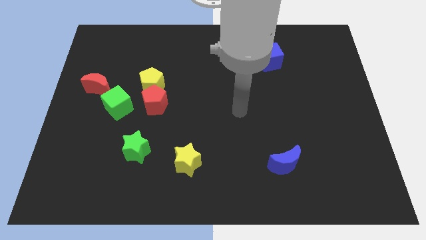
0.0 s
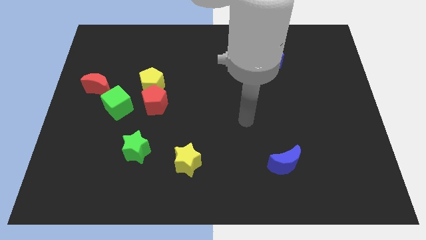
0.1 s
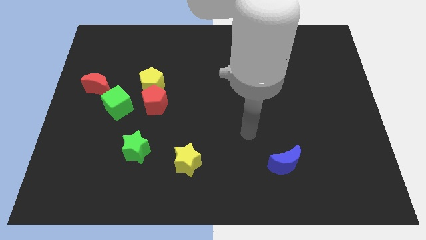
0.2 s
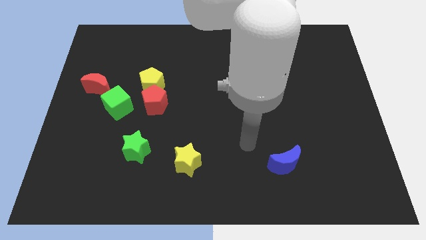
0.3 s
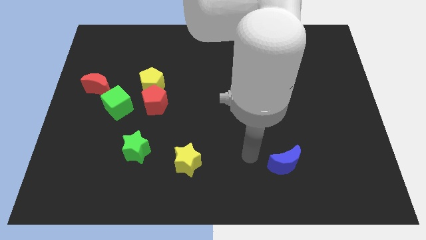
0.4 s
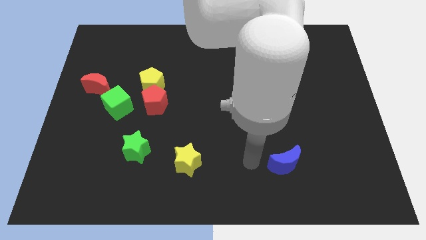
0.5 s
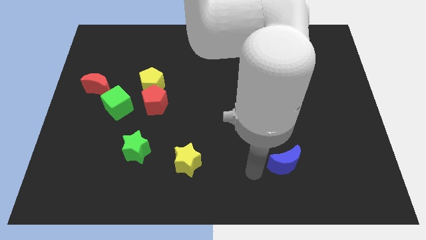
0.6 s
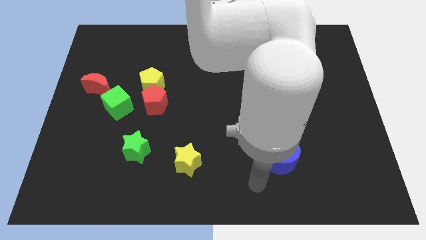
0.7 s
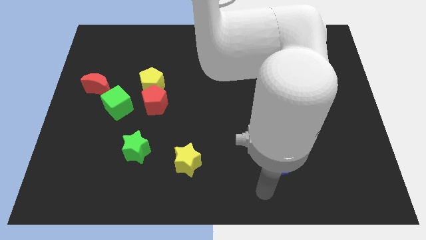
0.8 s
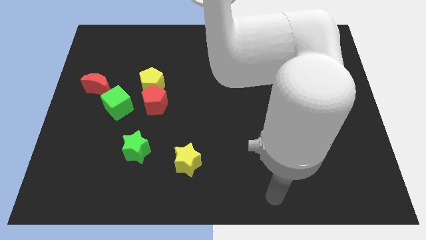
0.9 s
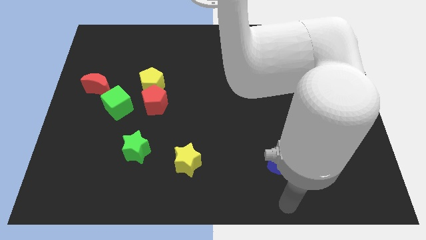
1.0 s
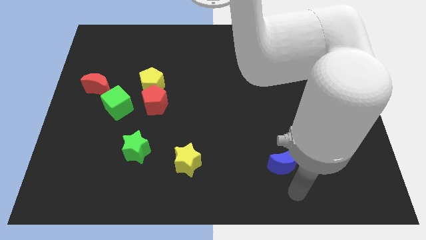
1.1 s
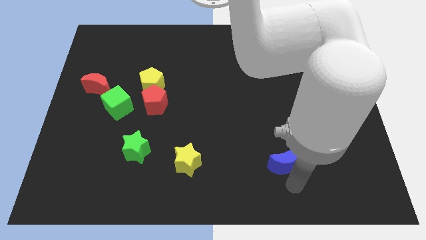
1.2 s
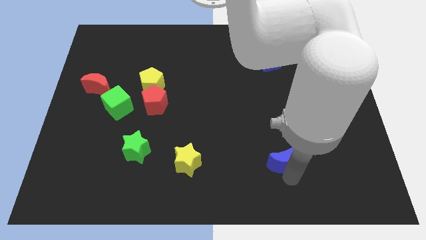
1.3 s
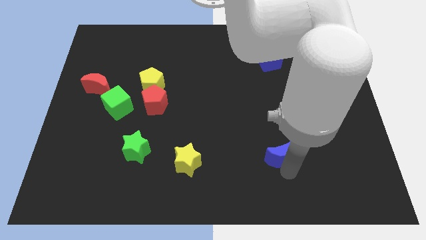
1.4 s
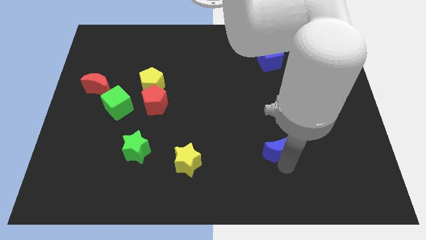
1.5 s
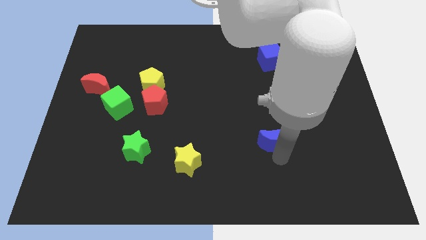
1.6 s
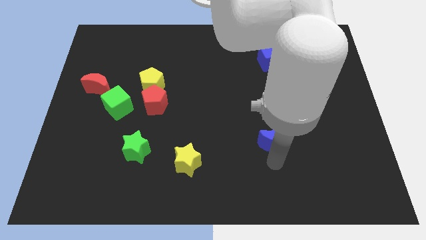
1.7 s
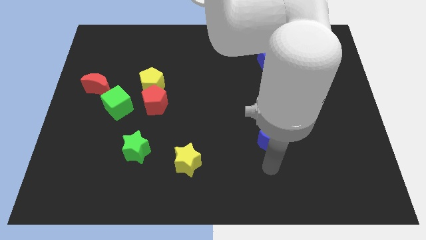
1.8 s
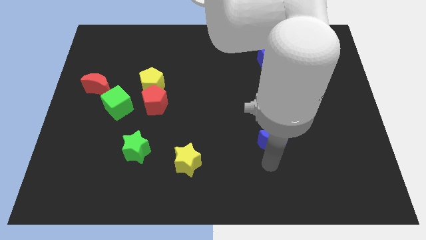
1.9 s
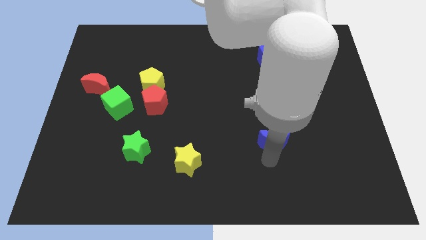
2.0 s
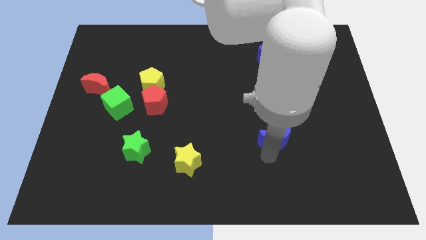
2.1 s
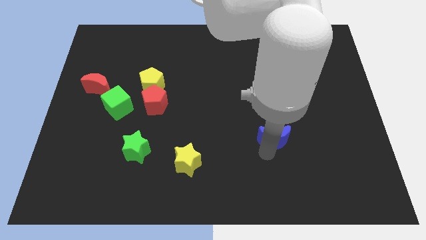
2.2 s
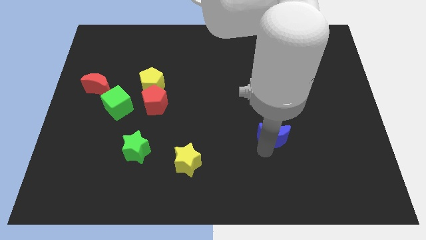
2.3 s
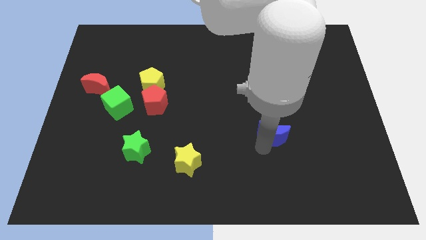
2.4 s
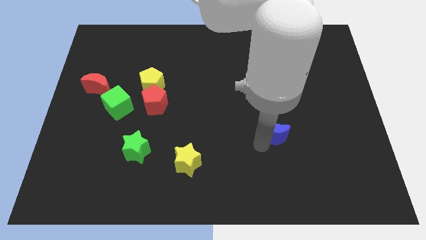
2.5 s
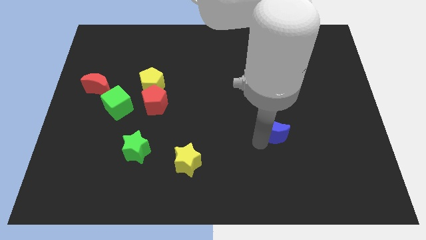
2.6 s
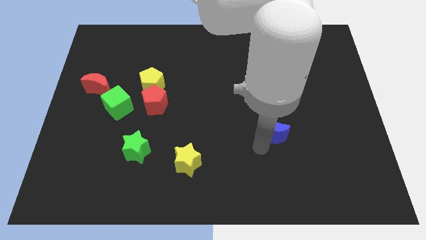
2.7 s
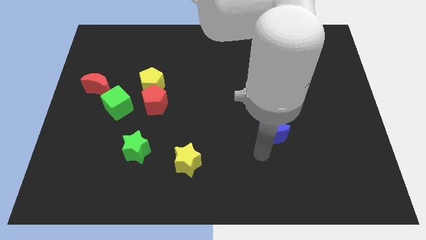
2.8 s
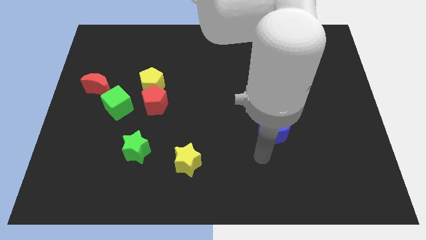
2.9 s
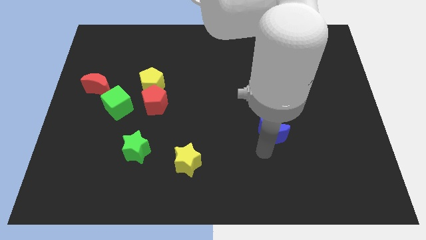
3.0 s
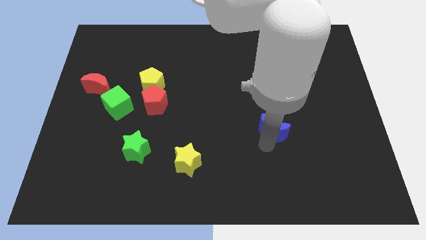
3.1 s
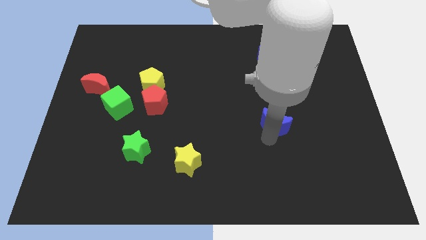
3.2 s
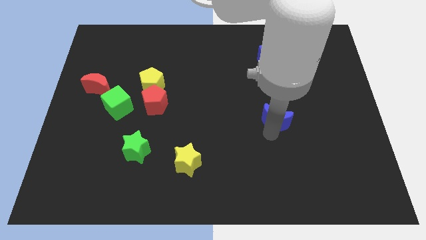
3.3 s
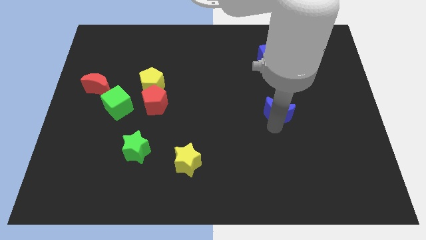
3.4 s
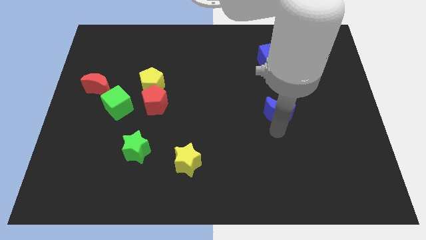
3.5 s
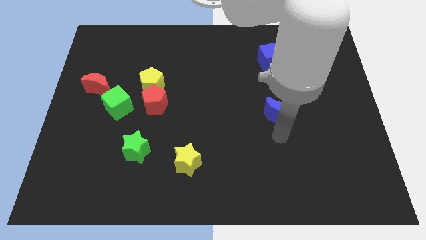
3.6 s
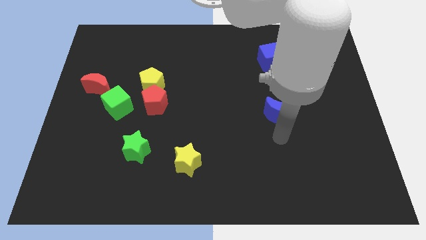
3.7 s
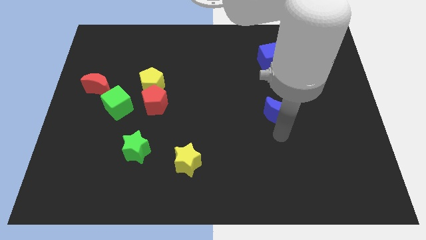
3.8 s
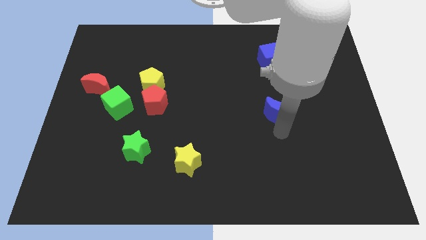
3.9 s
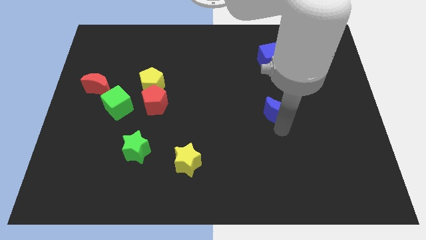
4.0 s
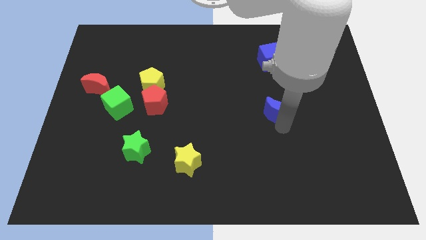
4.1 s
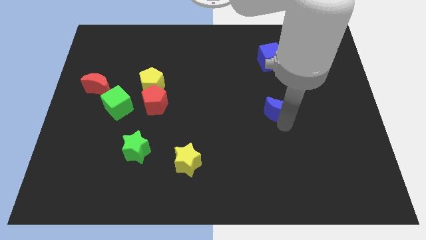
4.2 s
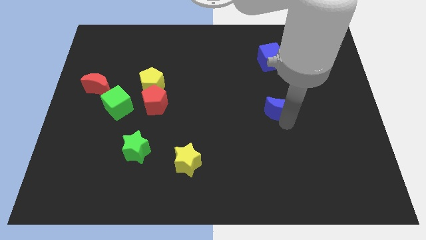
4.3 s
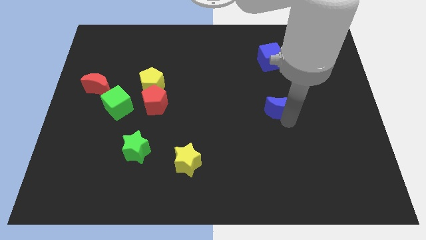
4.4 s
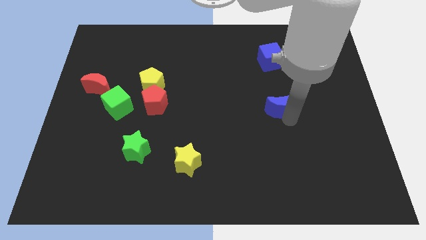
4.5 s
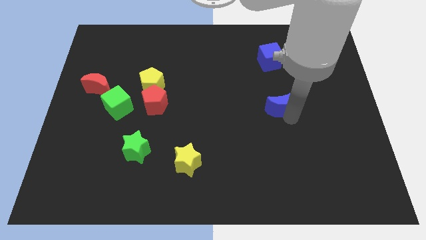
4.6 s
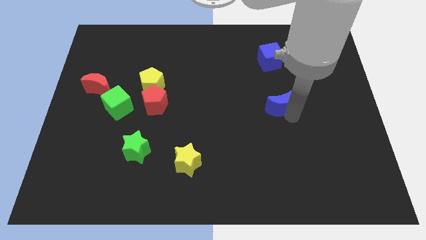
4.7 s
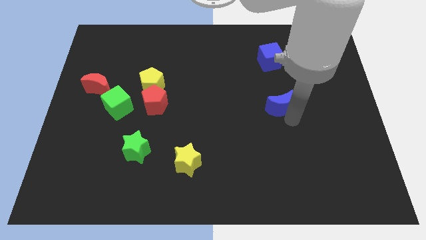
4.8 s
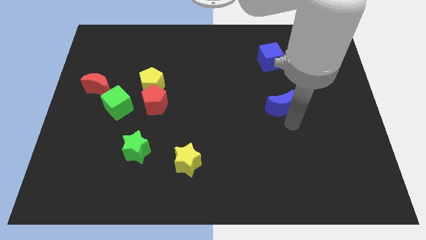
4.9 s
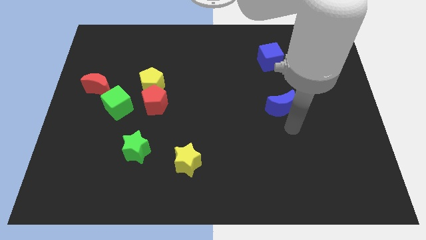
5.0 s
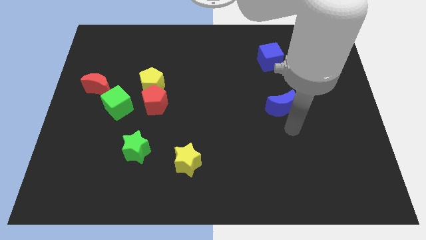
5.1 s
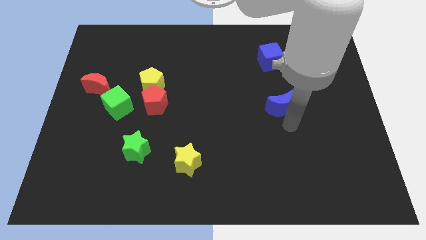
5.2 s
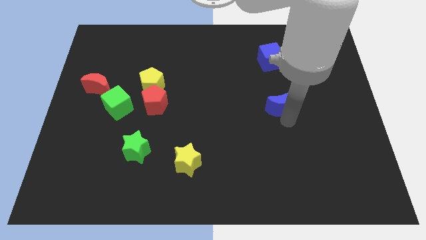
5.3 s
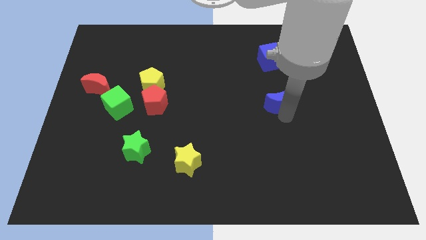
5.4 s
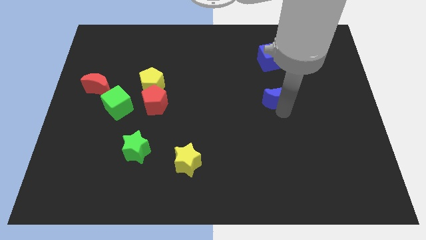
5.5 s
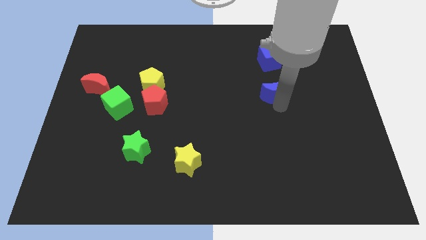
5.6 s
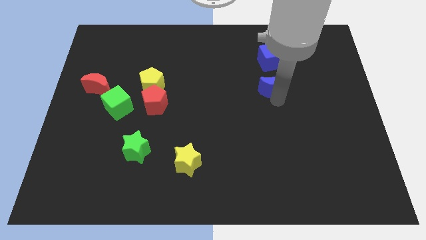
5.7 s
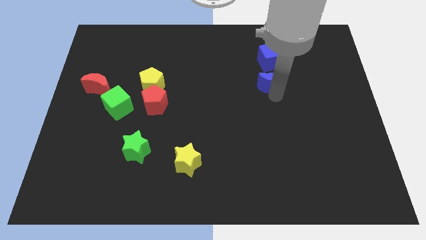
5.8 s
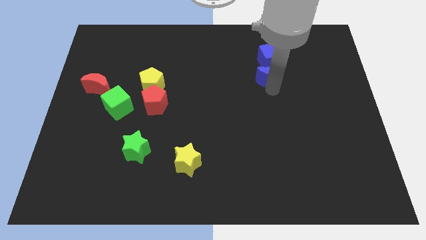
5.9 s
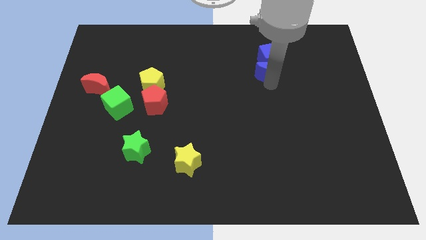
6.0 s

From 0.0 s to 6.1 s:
move the blue moon to the blue cube

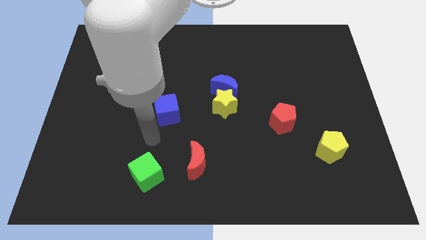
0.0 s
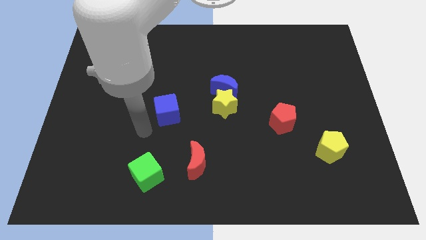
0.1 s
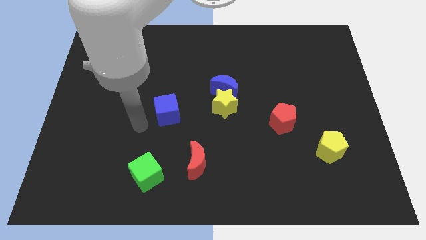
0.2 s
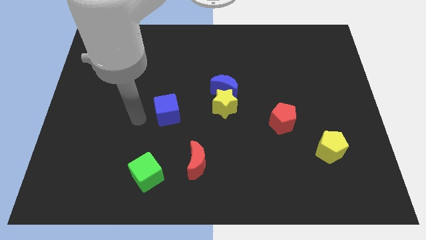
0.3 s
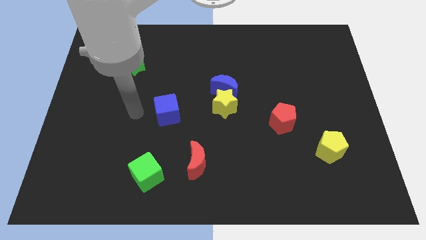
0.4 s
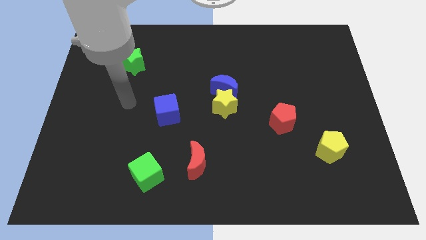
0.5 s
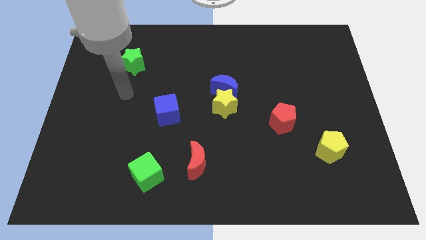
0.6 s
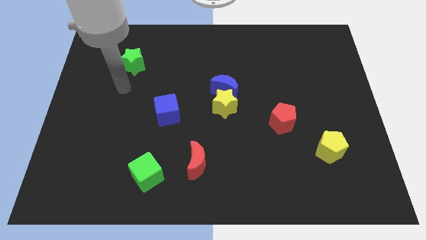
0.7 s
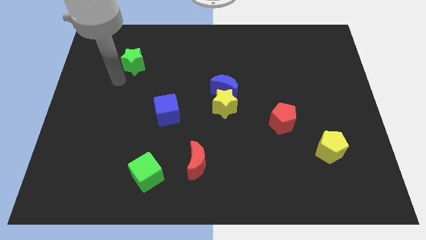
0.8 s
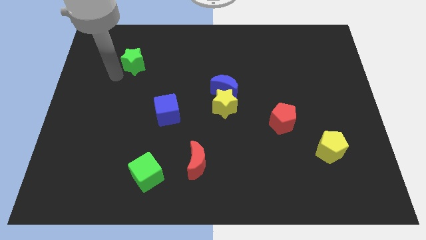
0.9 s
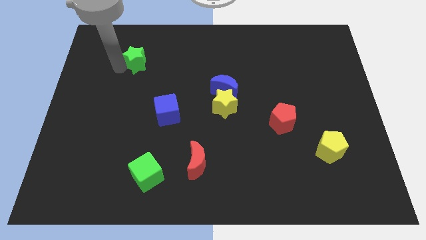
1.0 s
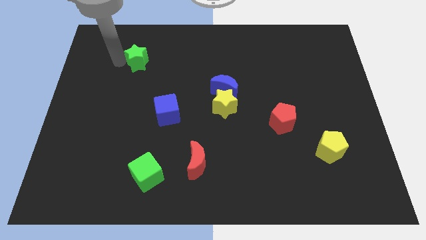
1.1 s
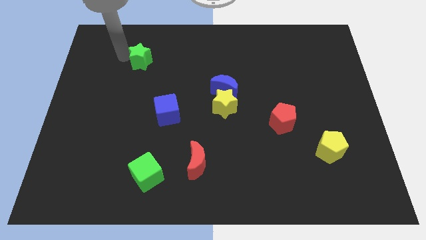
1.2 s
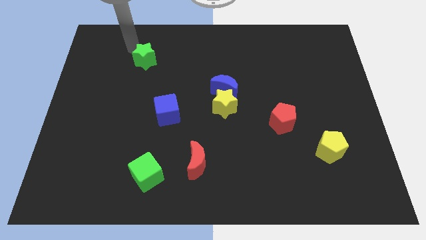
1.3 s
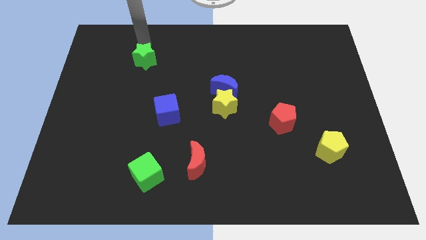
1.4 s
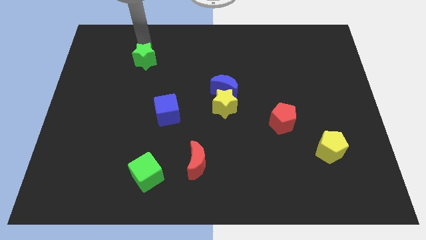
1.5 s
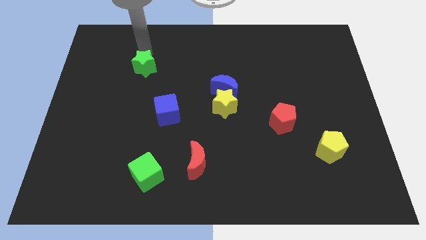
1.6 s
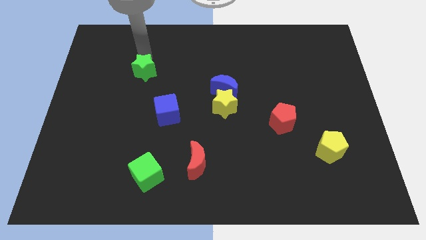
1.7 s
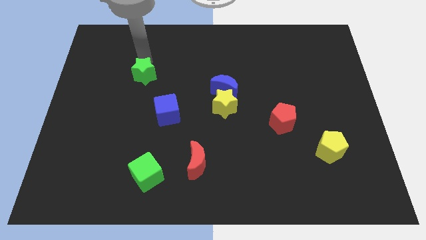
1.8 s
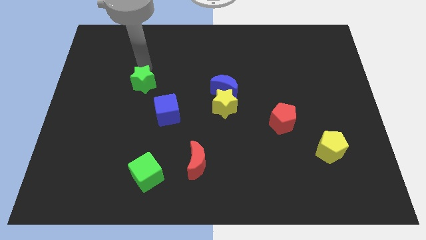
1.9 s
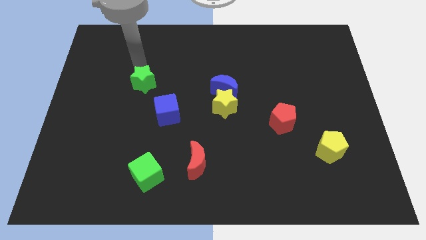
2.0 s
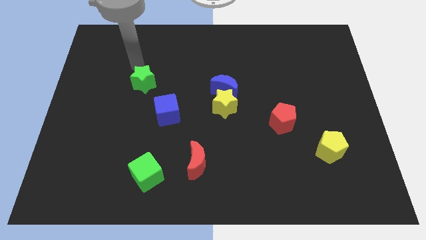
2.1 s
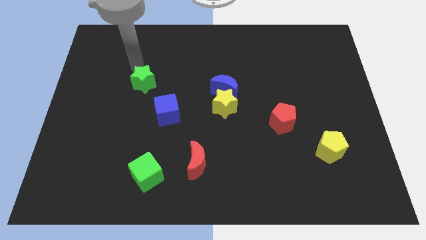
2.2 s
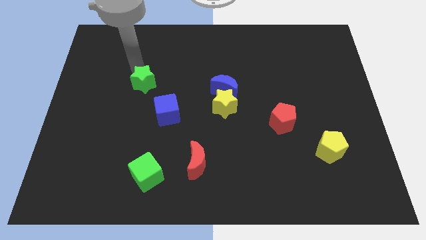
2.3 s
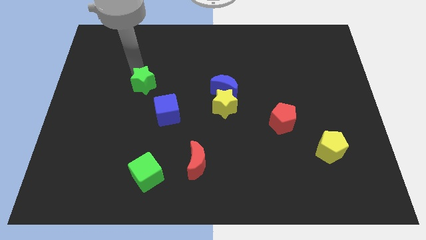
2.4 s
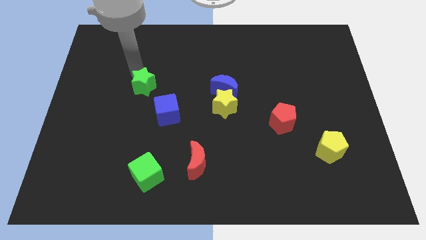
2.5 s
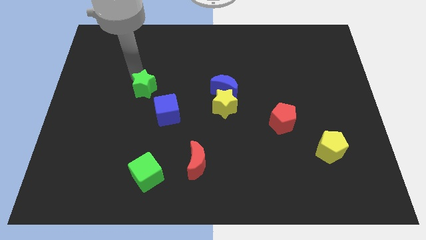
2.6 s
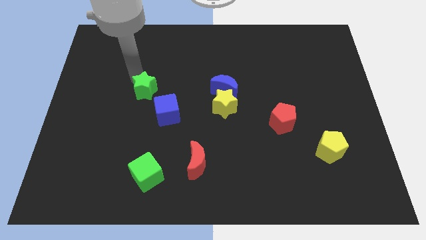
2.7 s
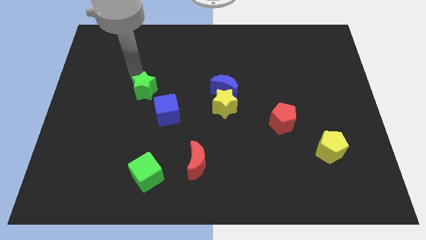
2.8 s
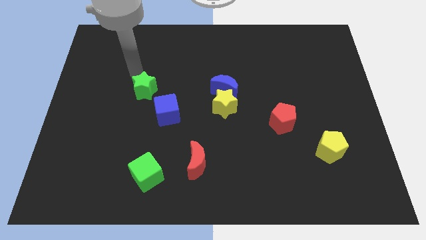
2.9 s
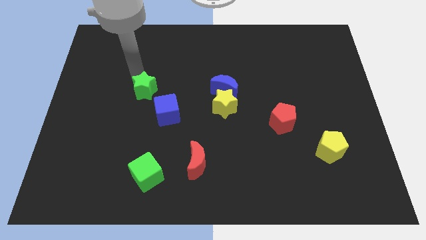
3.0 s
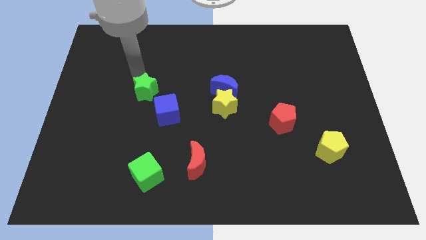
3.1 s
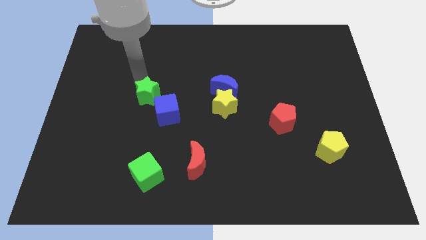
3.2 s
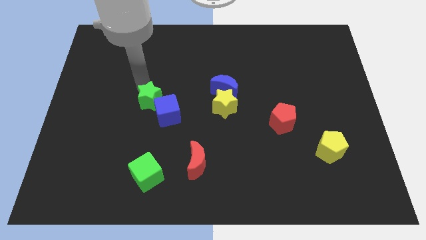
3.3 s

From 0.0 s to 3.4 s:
slide the green star next to the blue cube
